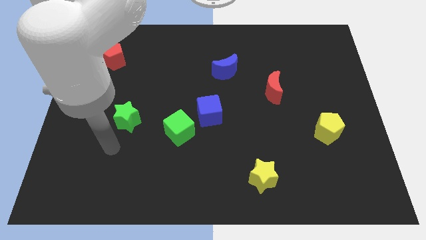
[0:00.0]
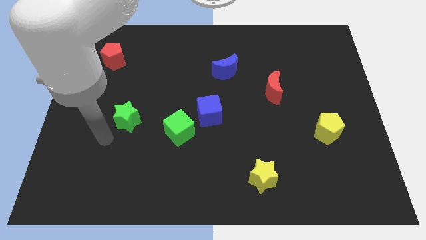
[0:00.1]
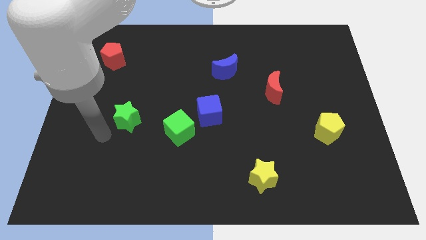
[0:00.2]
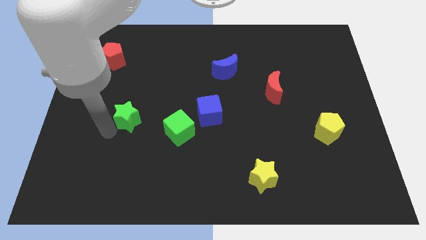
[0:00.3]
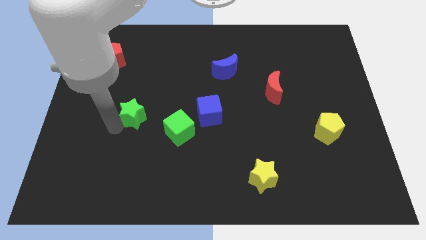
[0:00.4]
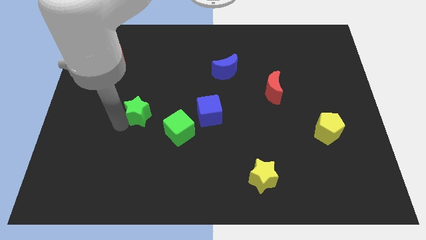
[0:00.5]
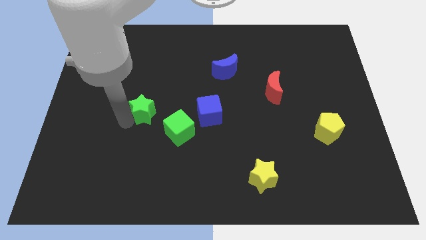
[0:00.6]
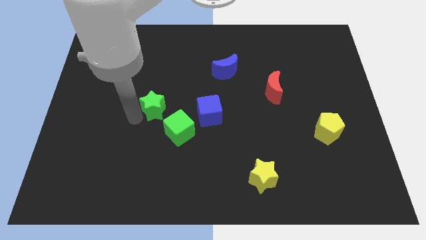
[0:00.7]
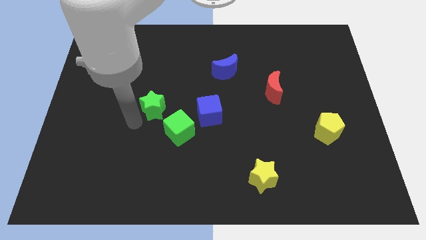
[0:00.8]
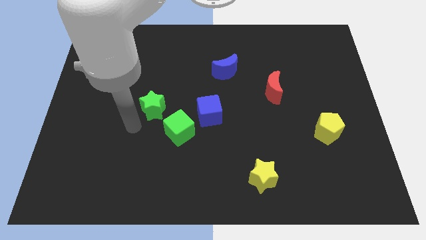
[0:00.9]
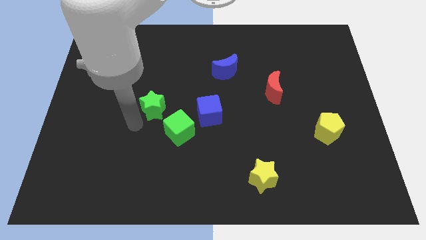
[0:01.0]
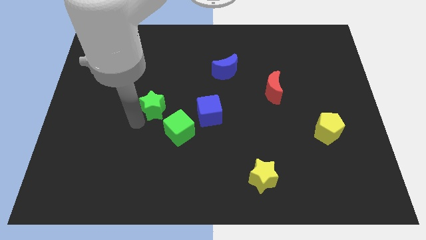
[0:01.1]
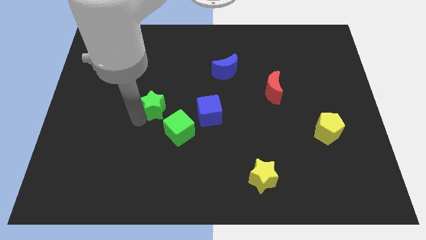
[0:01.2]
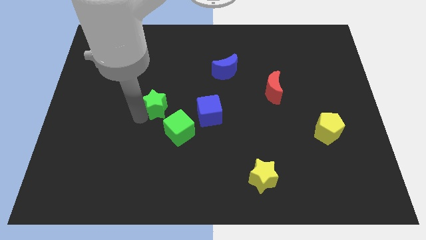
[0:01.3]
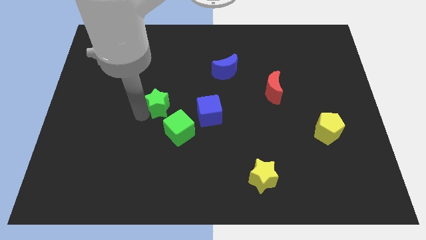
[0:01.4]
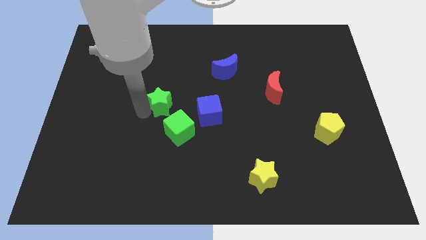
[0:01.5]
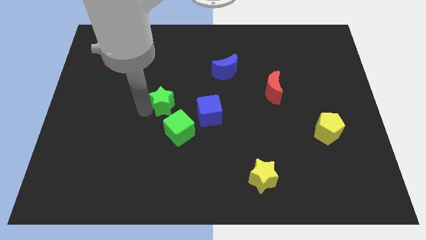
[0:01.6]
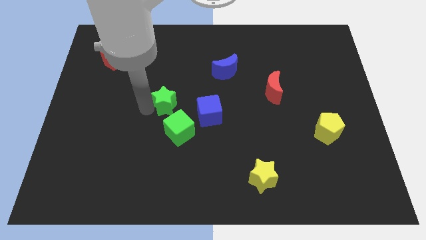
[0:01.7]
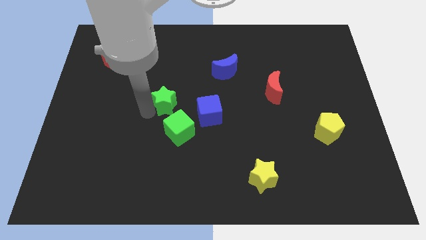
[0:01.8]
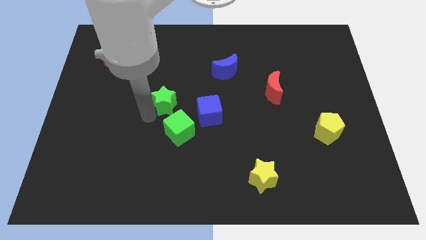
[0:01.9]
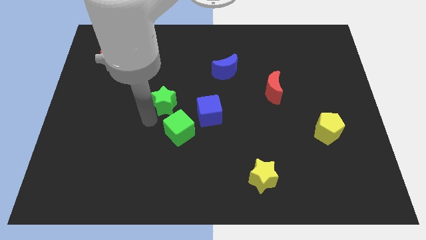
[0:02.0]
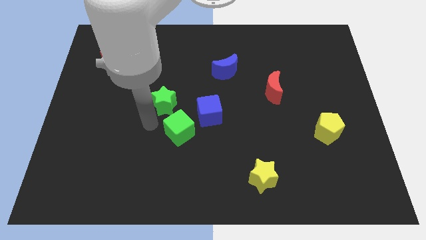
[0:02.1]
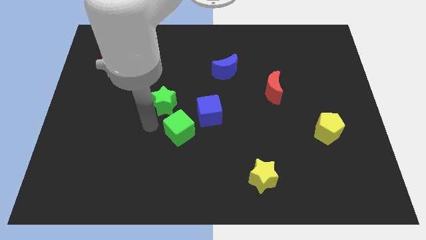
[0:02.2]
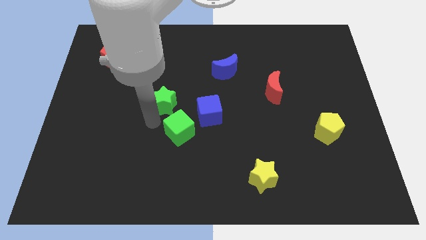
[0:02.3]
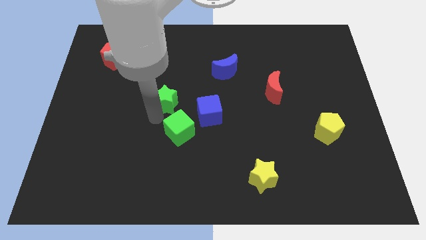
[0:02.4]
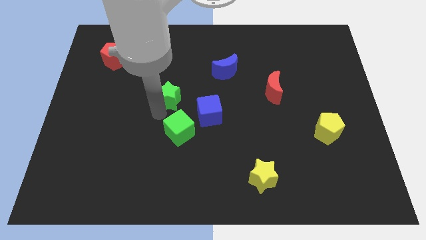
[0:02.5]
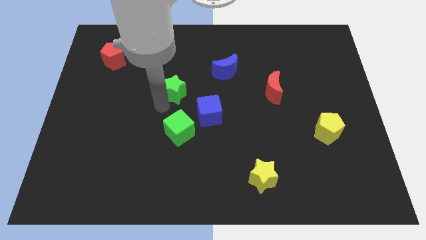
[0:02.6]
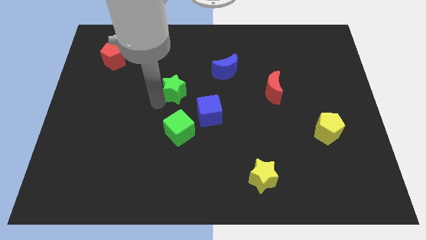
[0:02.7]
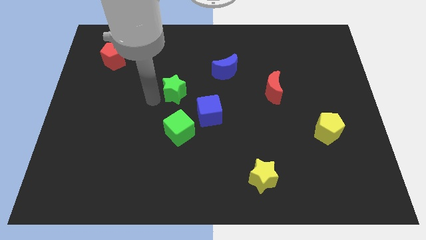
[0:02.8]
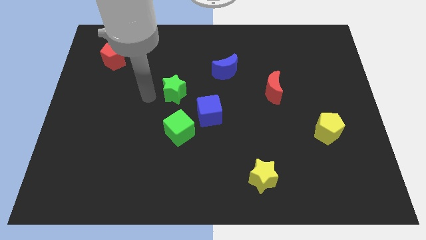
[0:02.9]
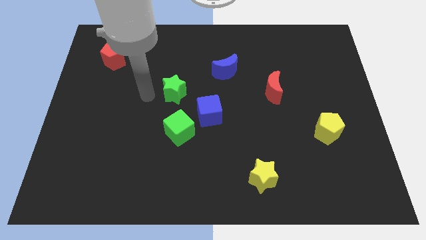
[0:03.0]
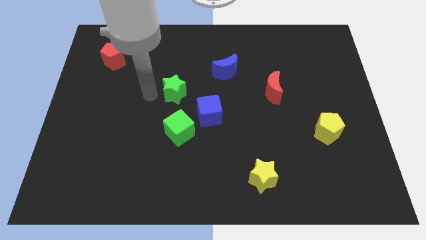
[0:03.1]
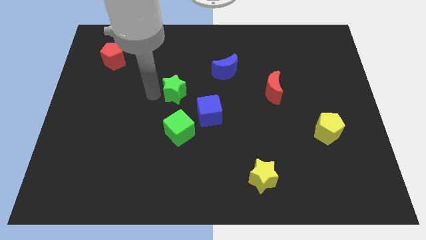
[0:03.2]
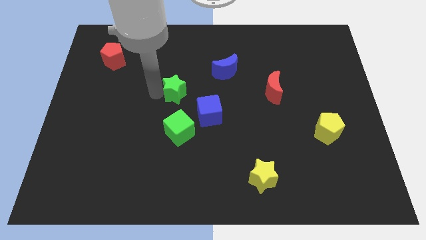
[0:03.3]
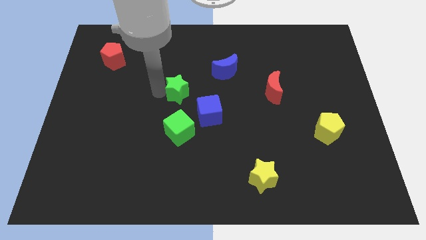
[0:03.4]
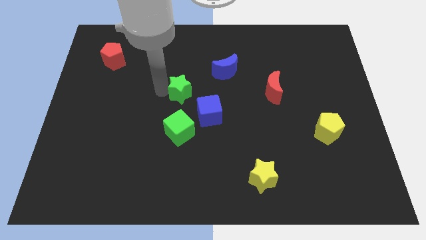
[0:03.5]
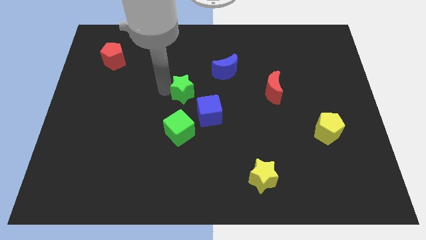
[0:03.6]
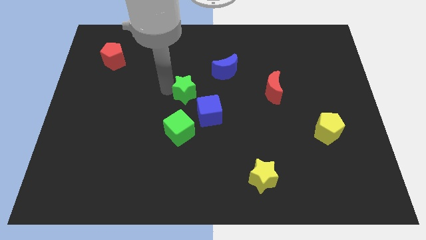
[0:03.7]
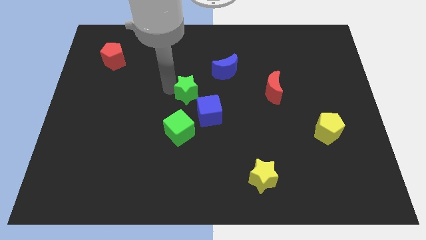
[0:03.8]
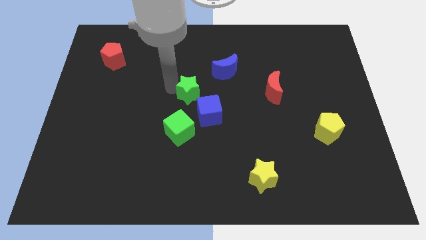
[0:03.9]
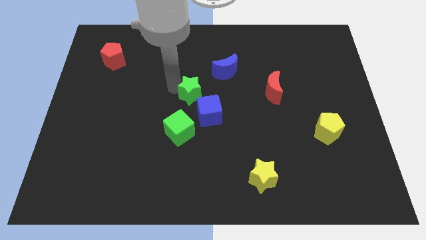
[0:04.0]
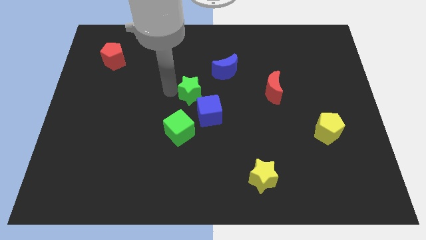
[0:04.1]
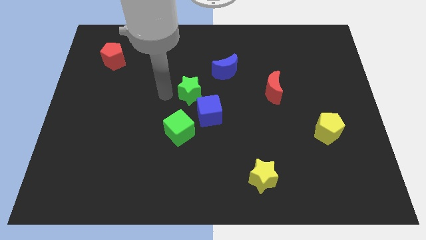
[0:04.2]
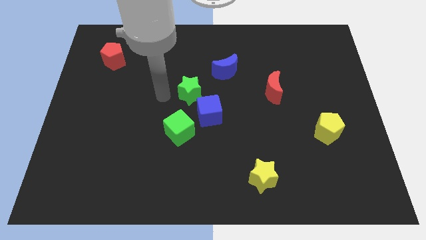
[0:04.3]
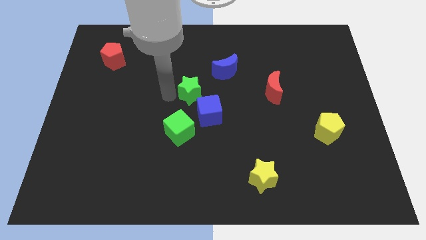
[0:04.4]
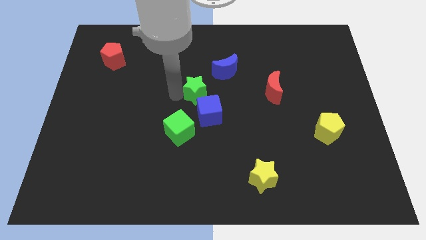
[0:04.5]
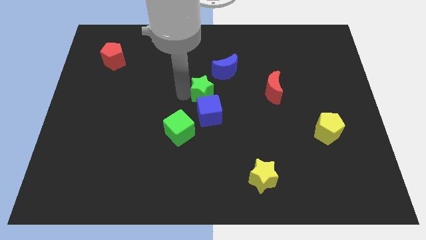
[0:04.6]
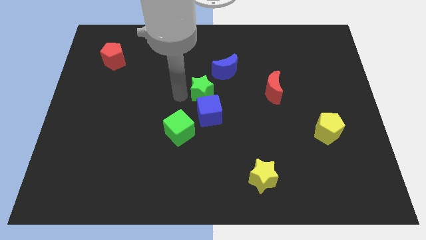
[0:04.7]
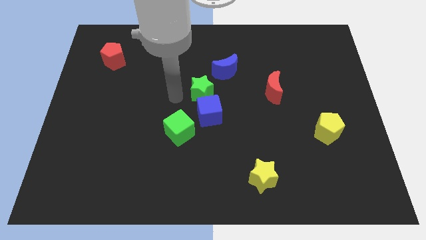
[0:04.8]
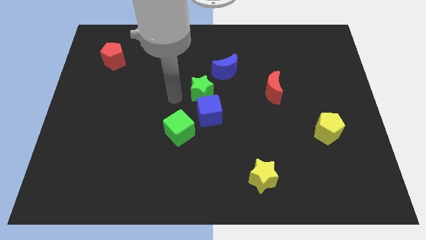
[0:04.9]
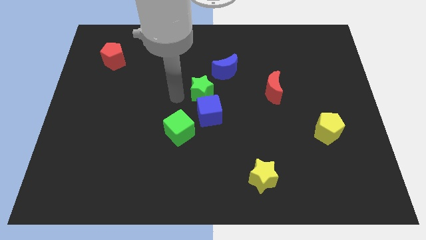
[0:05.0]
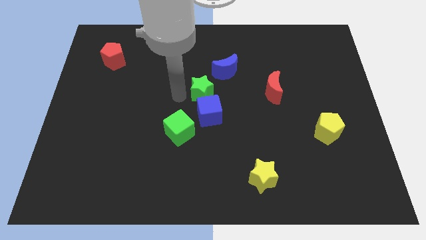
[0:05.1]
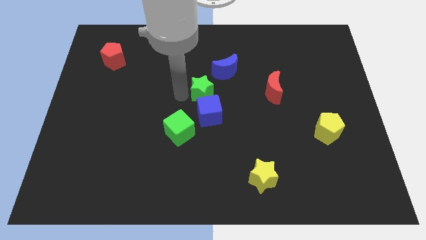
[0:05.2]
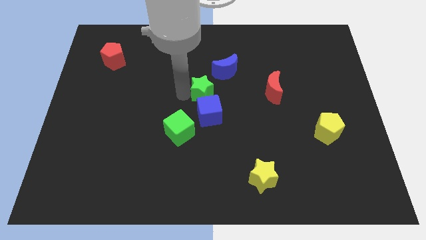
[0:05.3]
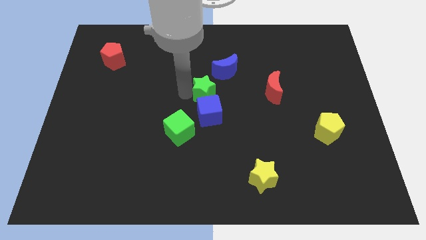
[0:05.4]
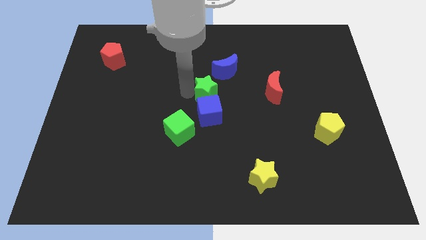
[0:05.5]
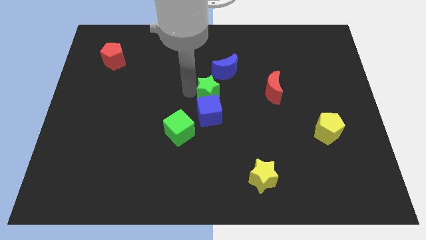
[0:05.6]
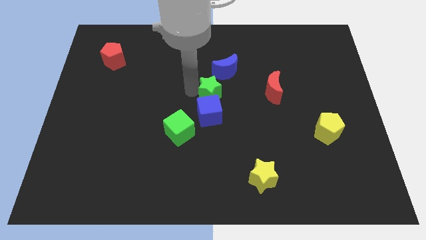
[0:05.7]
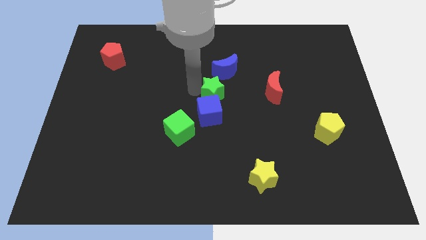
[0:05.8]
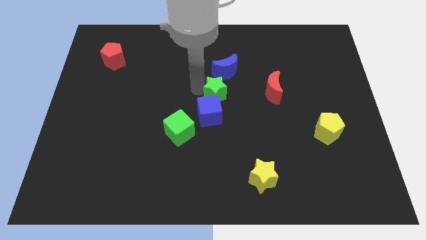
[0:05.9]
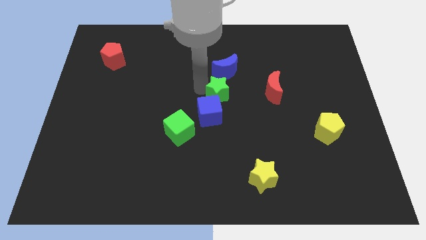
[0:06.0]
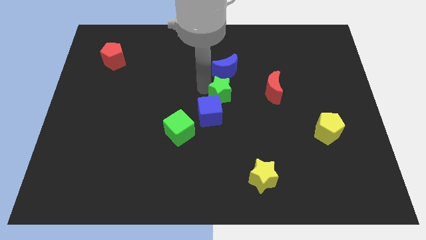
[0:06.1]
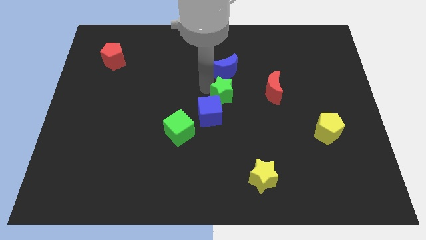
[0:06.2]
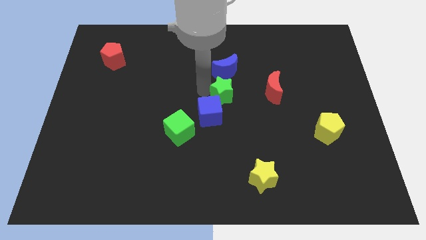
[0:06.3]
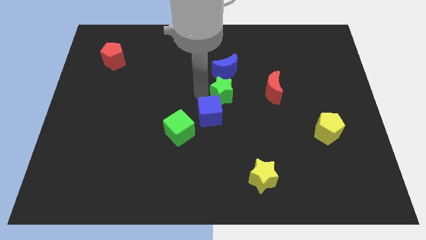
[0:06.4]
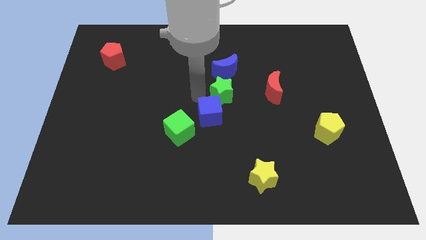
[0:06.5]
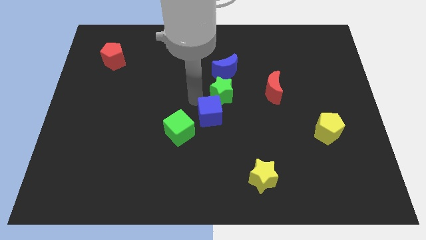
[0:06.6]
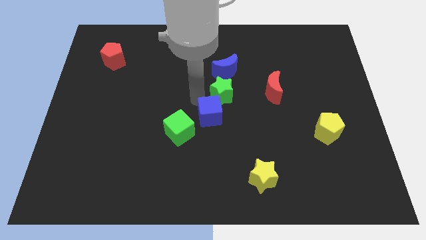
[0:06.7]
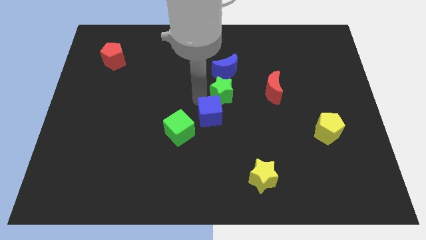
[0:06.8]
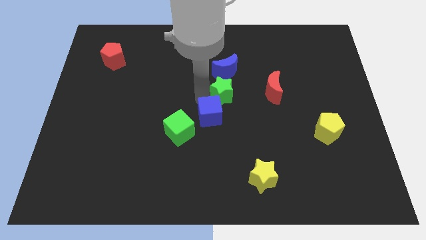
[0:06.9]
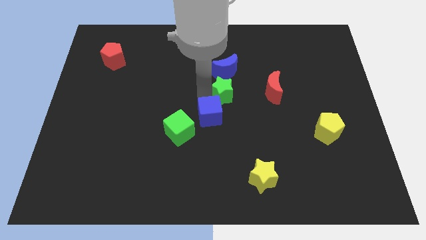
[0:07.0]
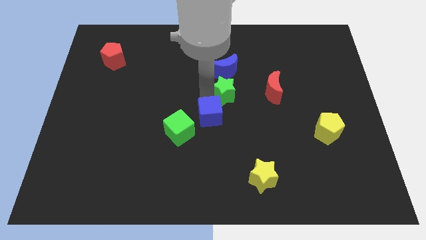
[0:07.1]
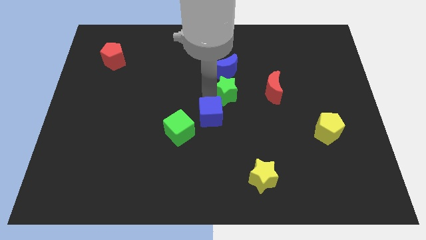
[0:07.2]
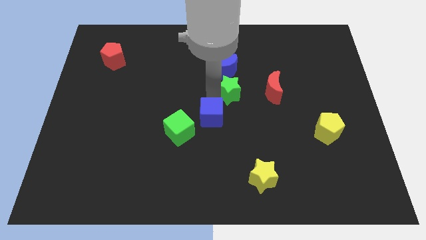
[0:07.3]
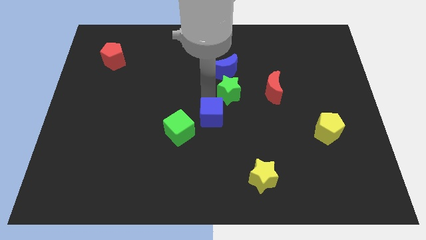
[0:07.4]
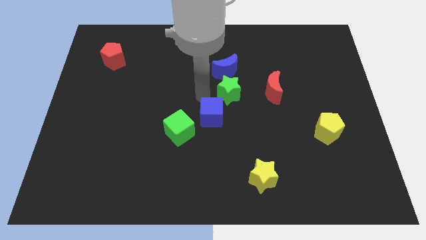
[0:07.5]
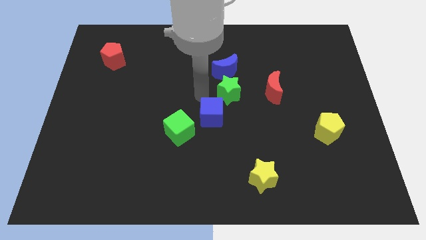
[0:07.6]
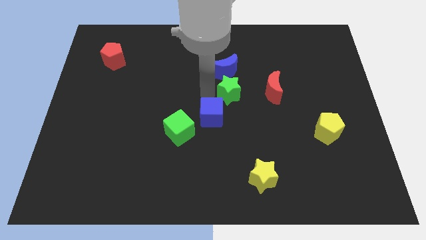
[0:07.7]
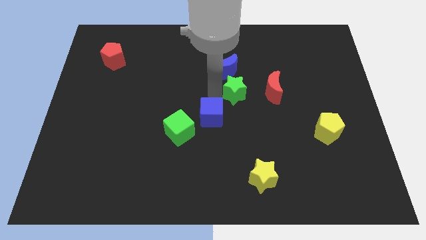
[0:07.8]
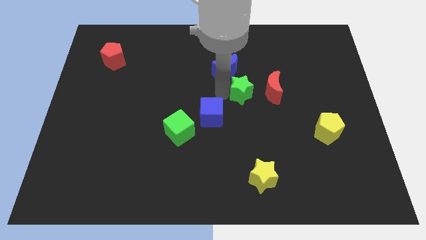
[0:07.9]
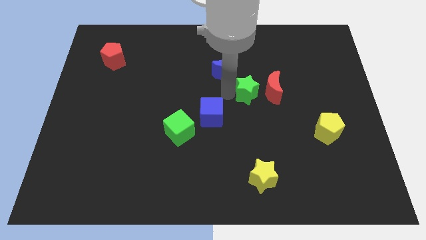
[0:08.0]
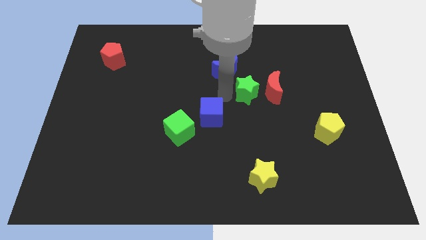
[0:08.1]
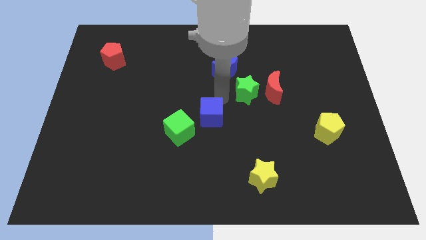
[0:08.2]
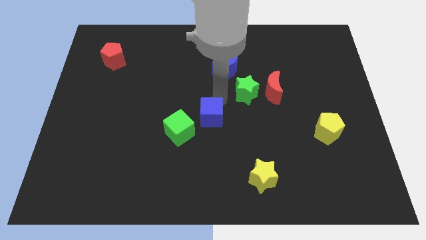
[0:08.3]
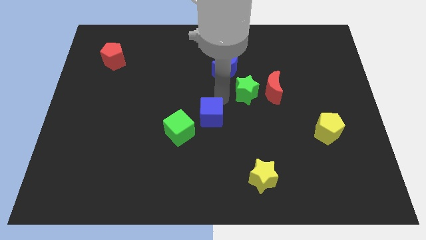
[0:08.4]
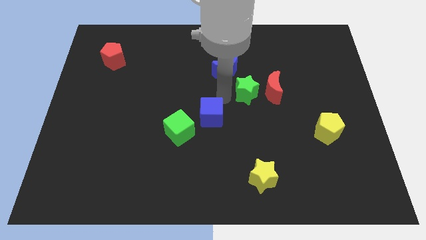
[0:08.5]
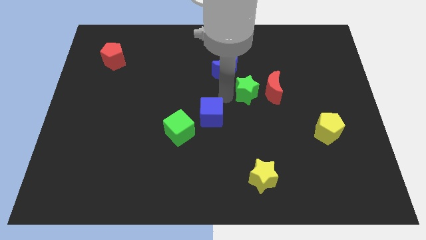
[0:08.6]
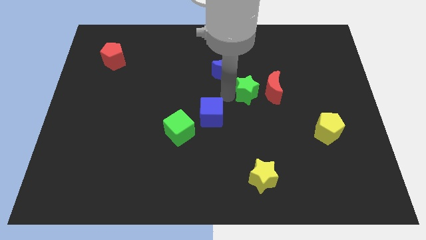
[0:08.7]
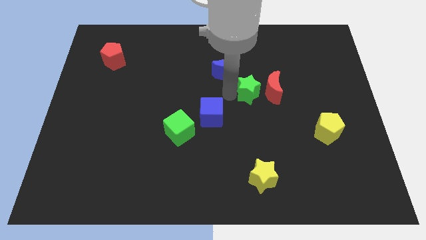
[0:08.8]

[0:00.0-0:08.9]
push the green star next to the red moon
